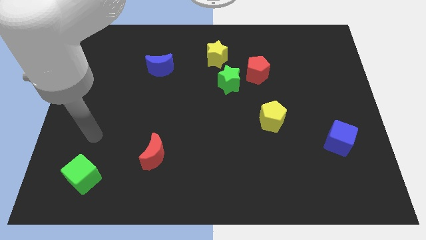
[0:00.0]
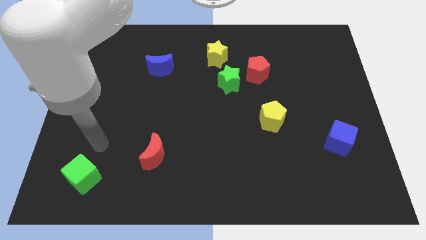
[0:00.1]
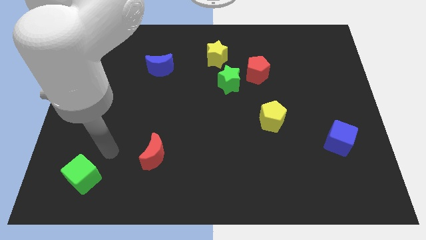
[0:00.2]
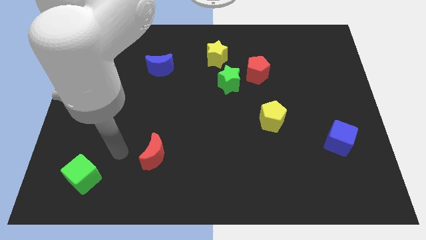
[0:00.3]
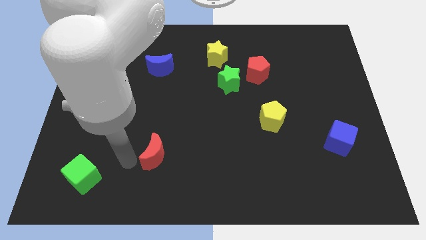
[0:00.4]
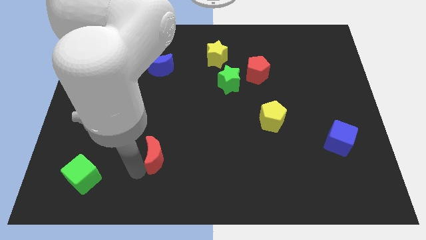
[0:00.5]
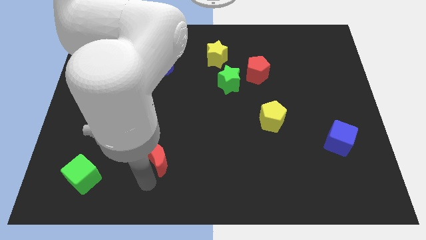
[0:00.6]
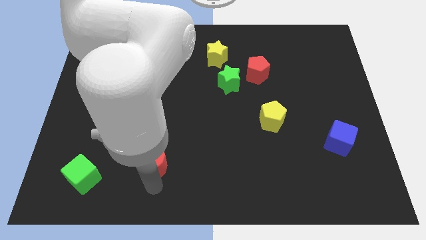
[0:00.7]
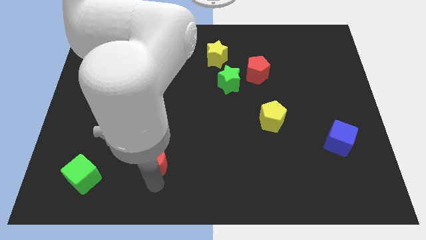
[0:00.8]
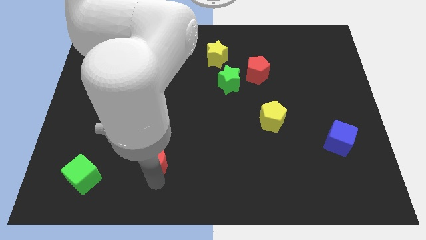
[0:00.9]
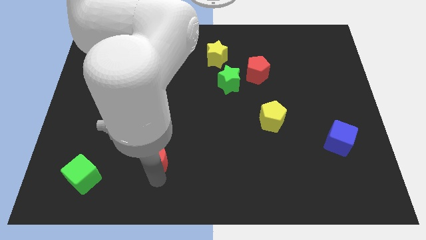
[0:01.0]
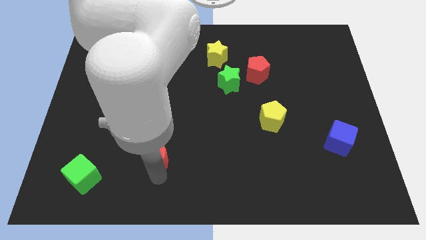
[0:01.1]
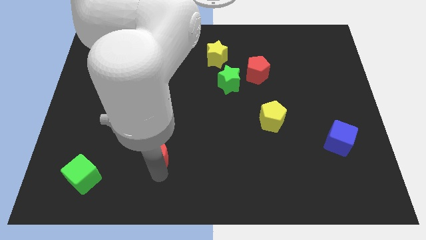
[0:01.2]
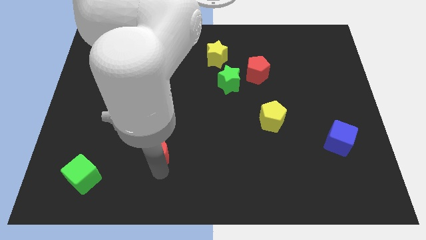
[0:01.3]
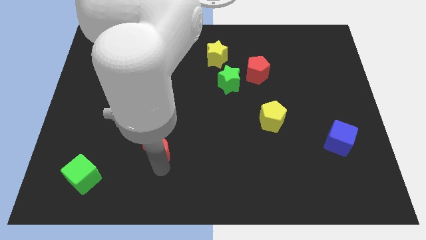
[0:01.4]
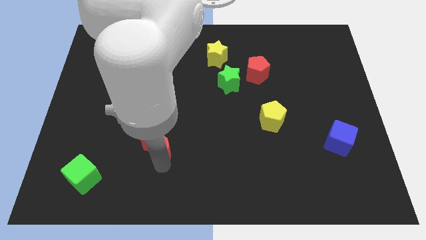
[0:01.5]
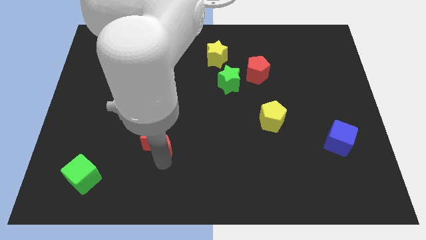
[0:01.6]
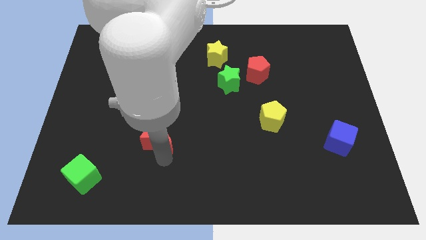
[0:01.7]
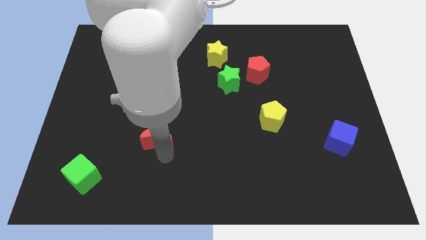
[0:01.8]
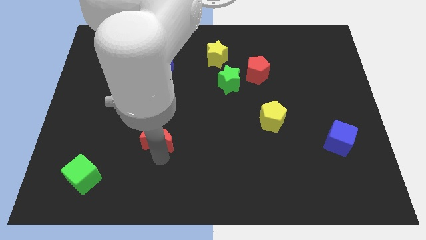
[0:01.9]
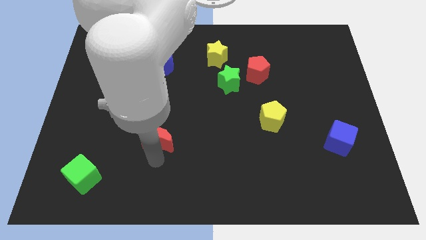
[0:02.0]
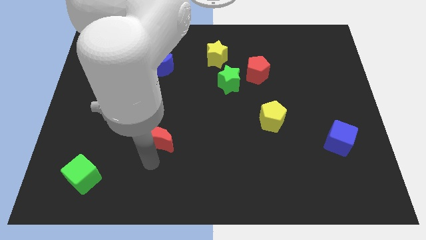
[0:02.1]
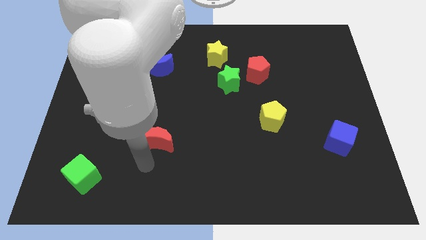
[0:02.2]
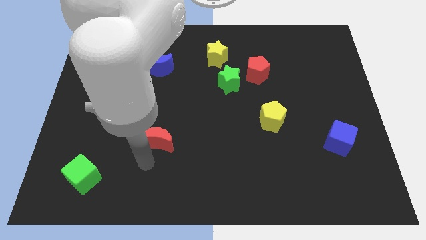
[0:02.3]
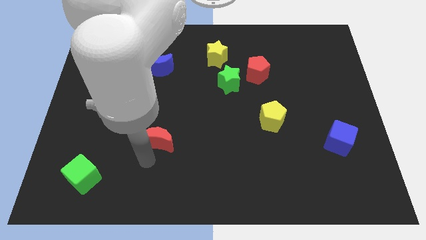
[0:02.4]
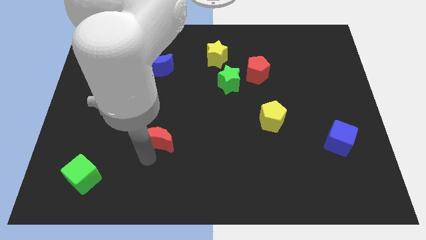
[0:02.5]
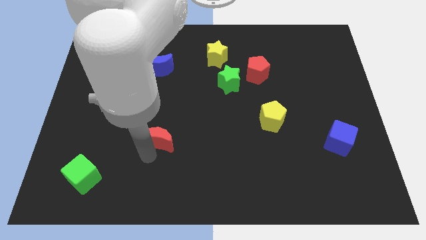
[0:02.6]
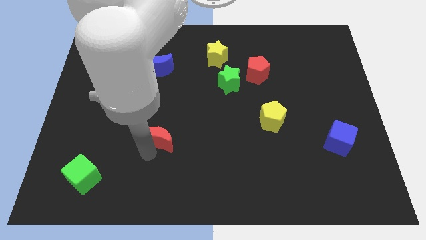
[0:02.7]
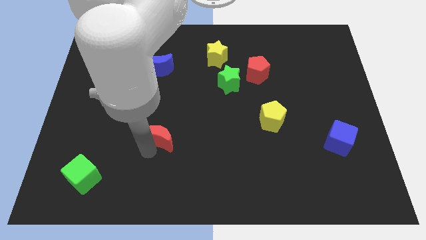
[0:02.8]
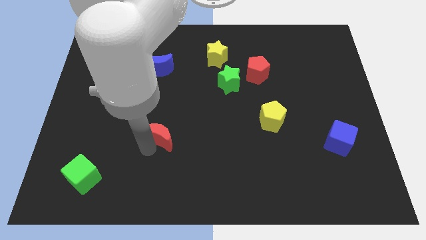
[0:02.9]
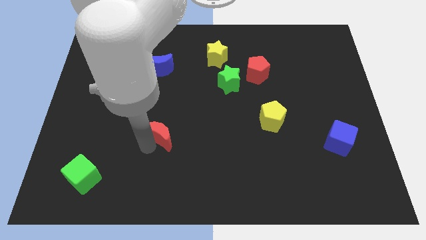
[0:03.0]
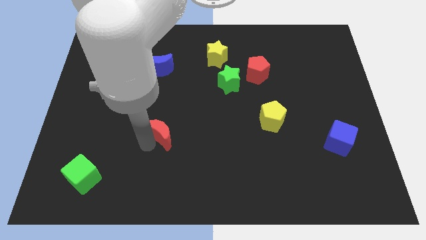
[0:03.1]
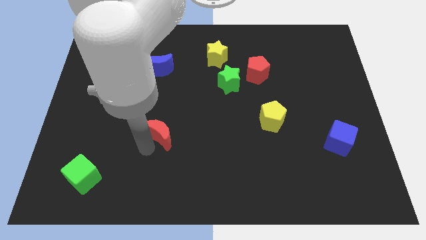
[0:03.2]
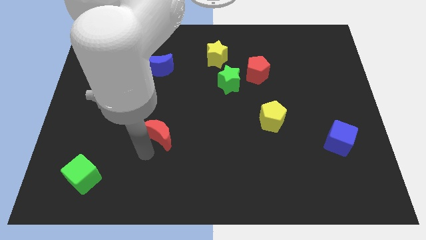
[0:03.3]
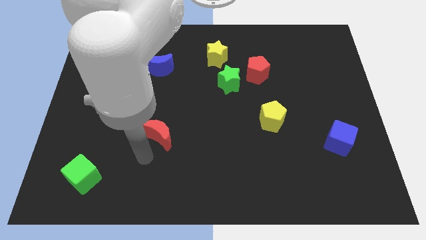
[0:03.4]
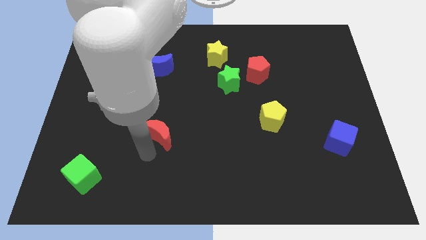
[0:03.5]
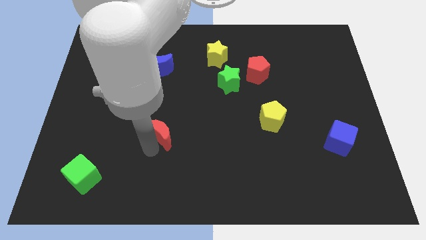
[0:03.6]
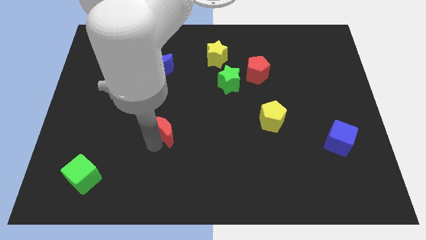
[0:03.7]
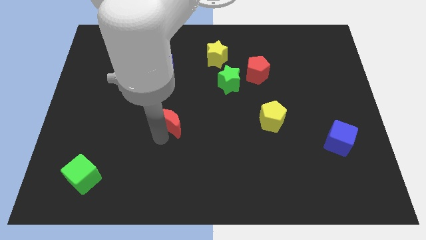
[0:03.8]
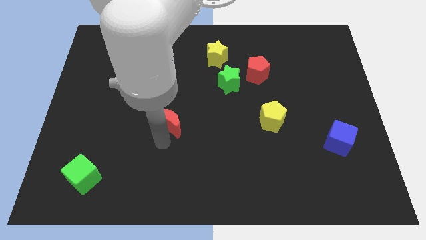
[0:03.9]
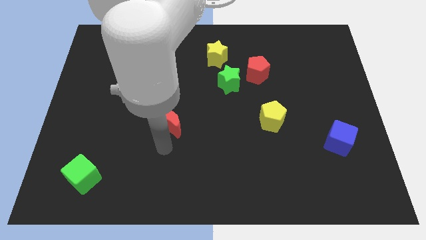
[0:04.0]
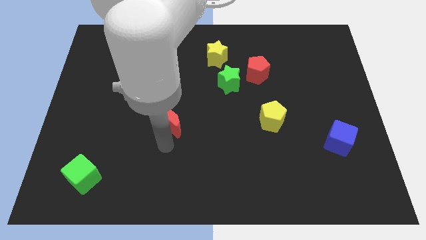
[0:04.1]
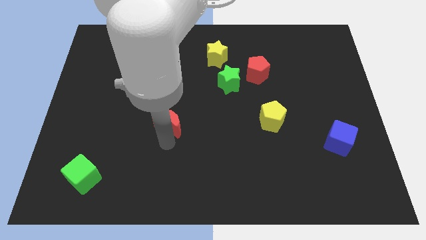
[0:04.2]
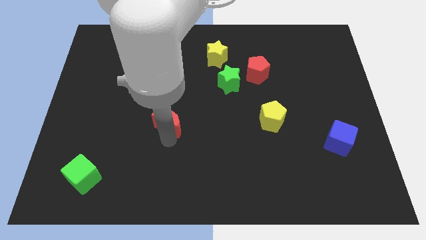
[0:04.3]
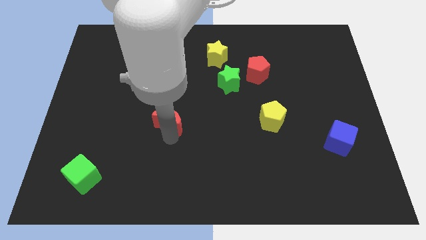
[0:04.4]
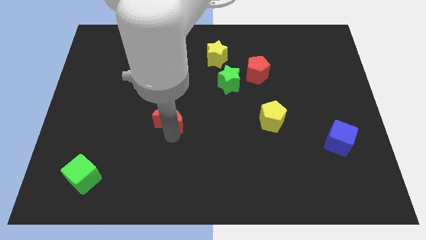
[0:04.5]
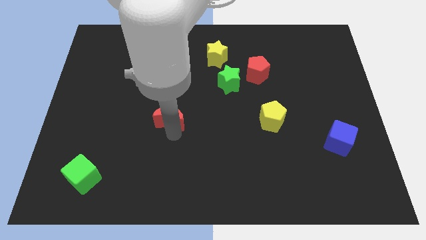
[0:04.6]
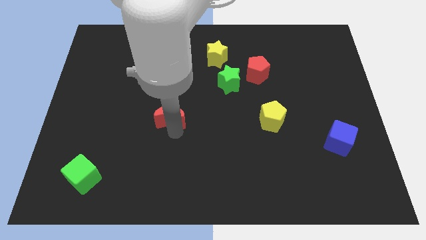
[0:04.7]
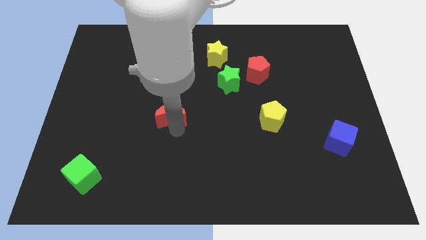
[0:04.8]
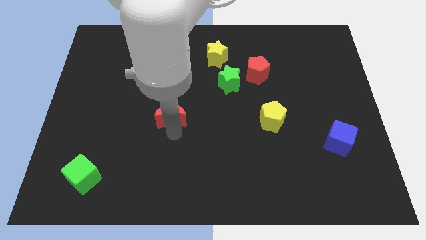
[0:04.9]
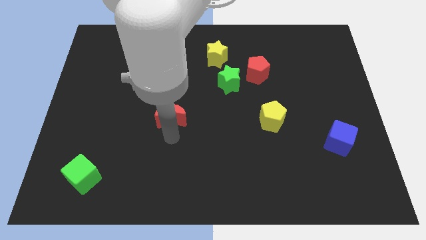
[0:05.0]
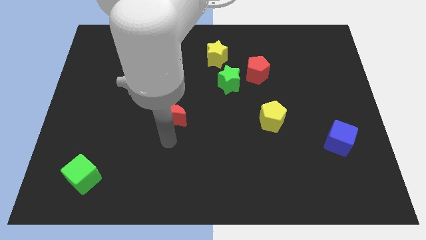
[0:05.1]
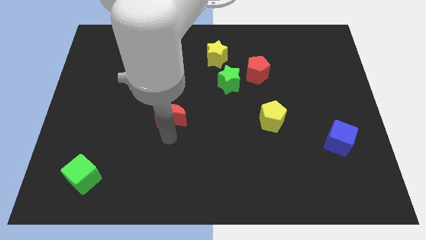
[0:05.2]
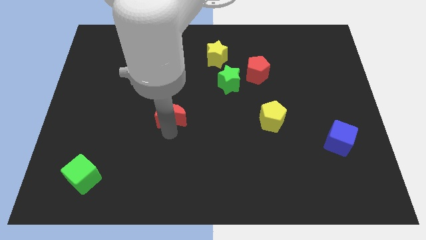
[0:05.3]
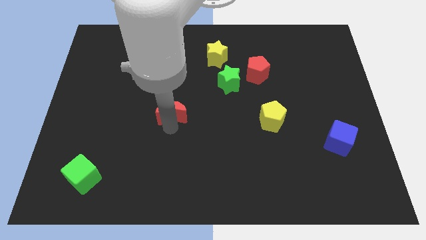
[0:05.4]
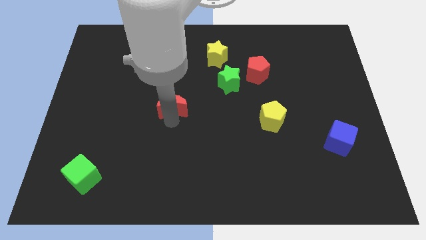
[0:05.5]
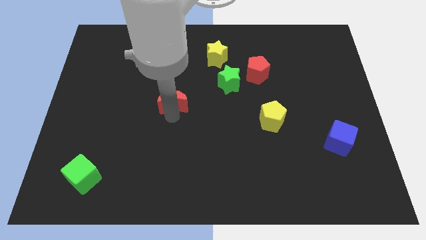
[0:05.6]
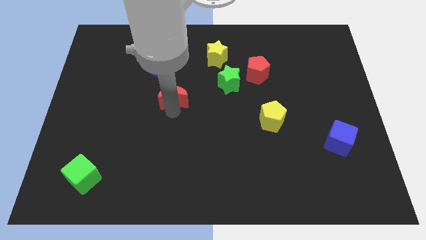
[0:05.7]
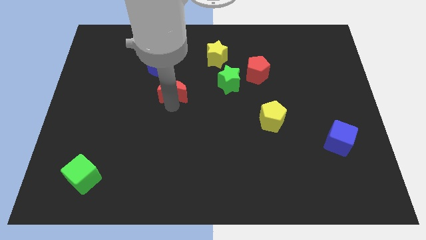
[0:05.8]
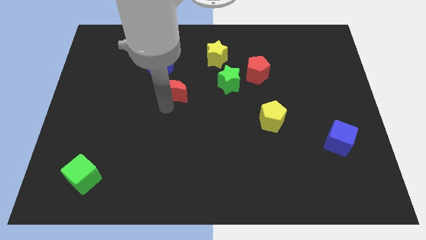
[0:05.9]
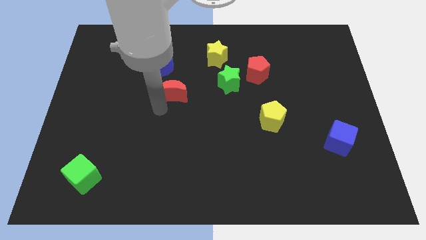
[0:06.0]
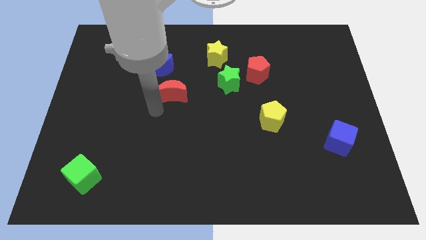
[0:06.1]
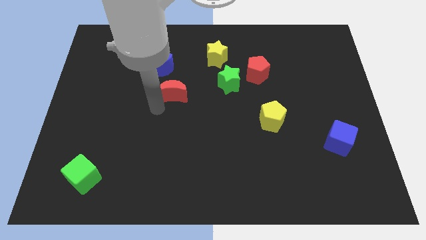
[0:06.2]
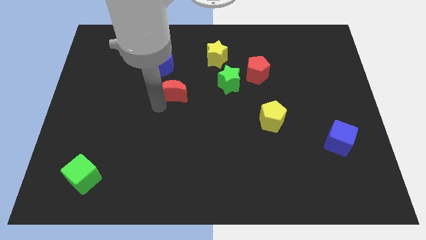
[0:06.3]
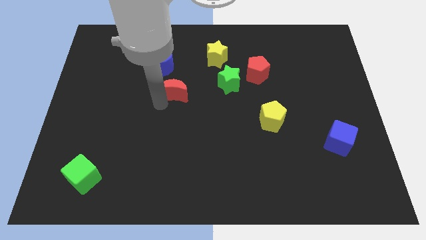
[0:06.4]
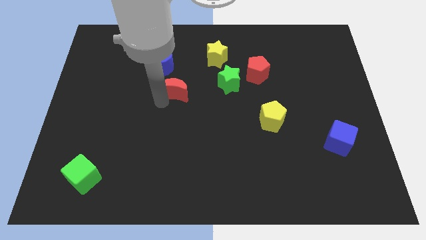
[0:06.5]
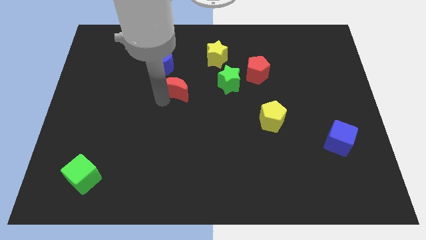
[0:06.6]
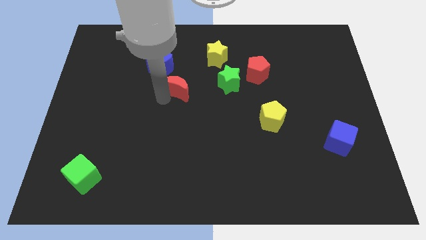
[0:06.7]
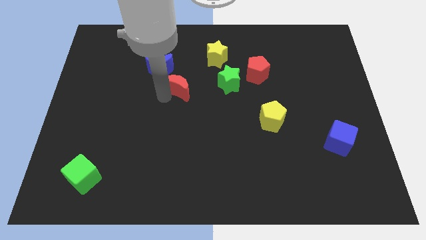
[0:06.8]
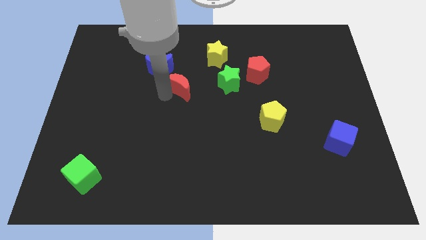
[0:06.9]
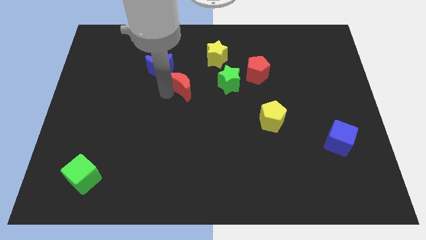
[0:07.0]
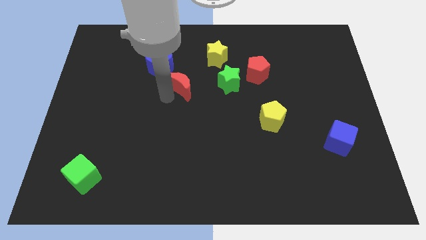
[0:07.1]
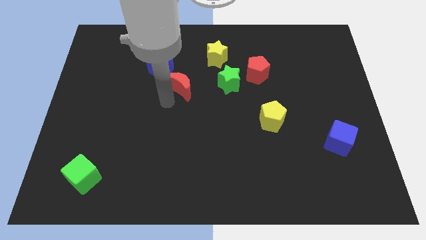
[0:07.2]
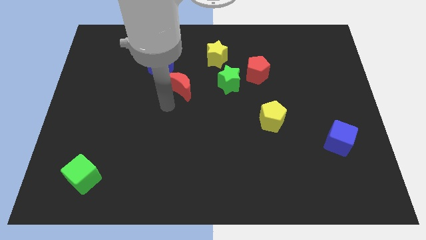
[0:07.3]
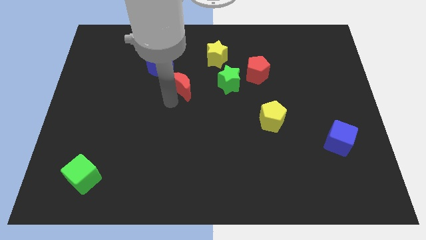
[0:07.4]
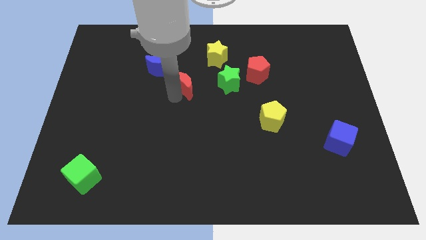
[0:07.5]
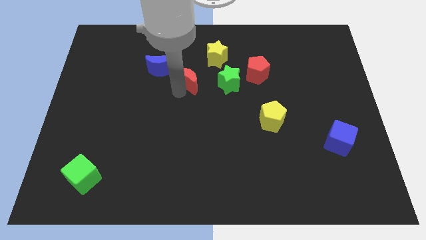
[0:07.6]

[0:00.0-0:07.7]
put the red moon to the bottom left of the yellow star
